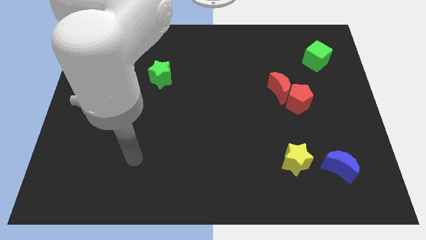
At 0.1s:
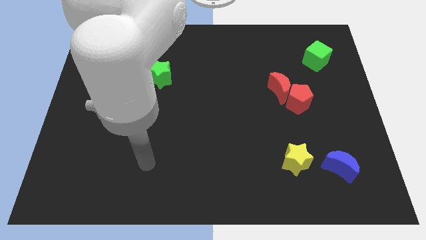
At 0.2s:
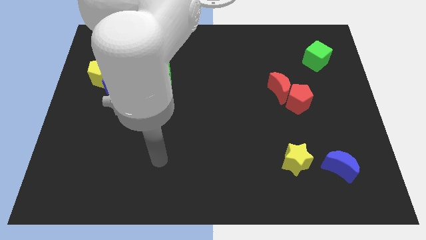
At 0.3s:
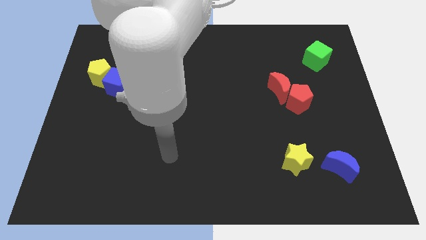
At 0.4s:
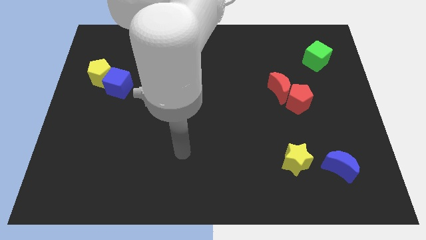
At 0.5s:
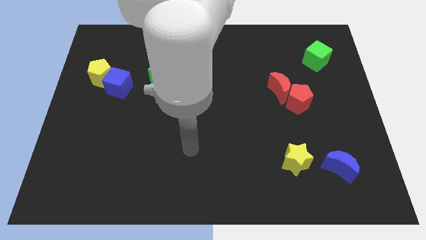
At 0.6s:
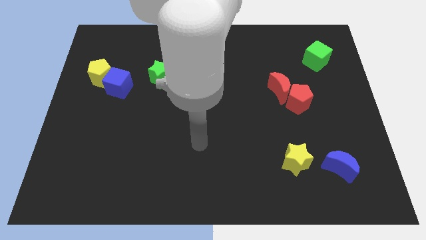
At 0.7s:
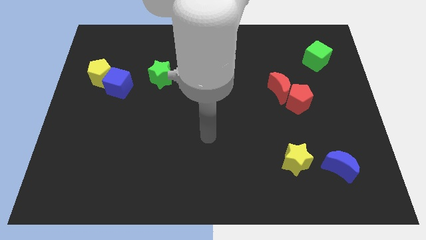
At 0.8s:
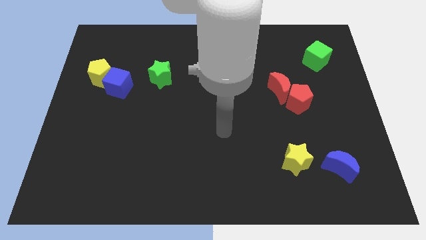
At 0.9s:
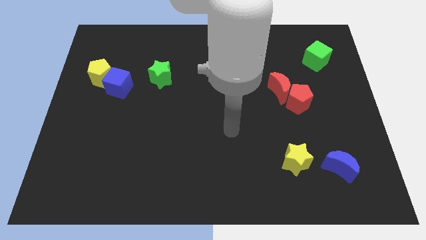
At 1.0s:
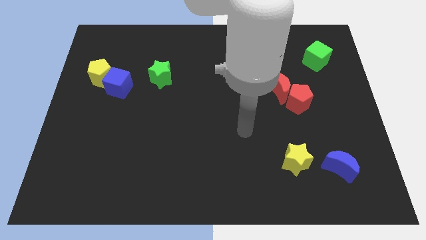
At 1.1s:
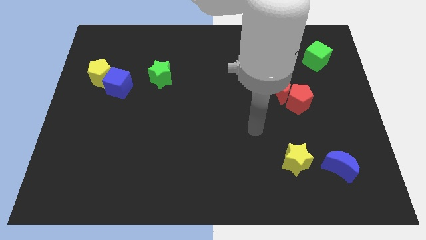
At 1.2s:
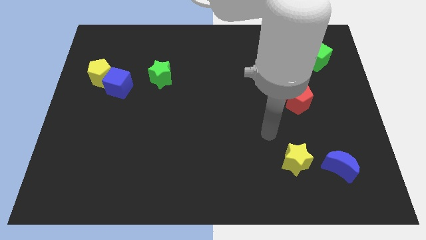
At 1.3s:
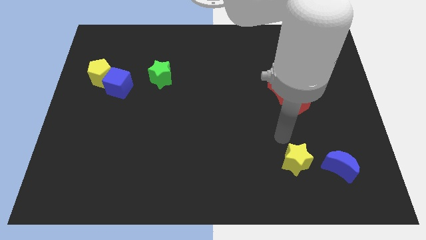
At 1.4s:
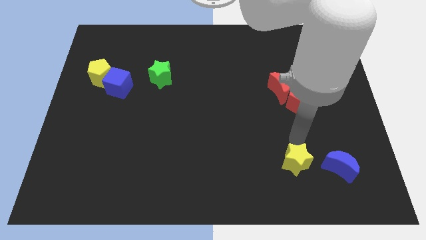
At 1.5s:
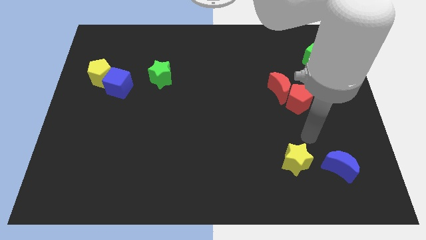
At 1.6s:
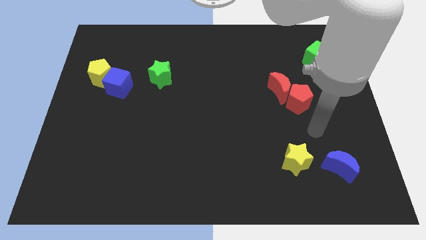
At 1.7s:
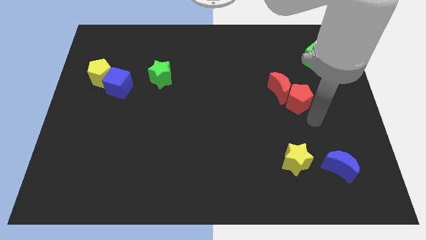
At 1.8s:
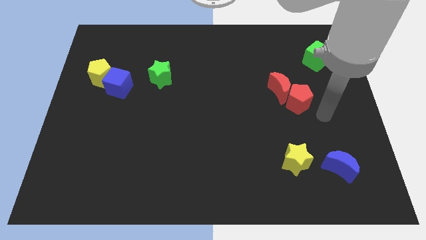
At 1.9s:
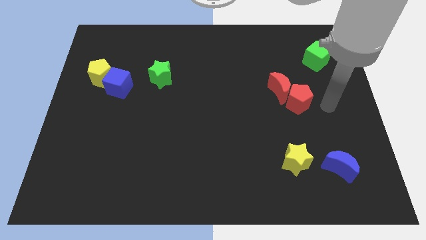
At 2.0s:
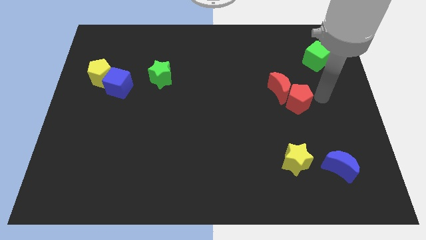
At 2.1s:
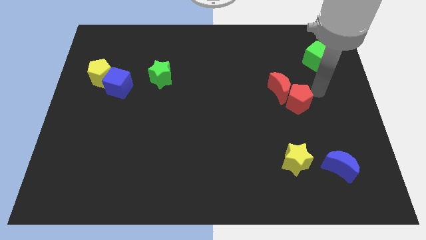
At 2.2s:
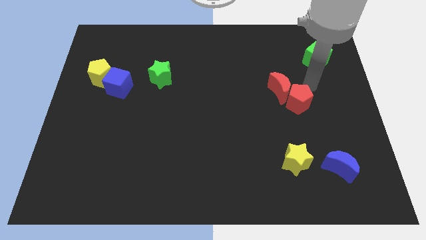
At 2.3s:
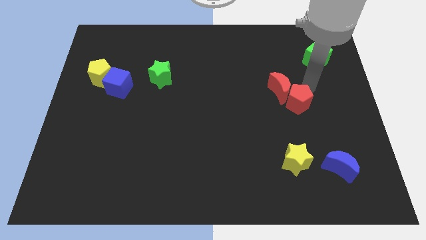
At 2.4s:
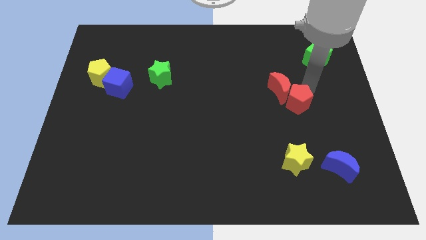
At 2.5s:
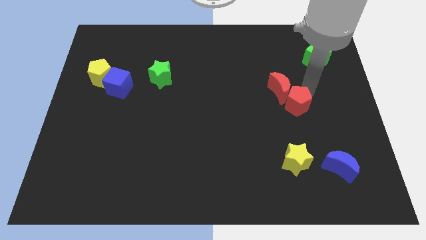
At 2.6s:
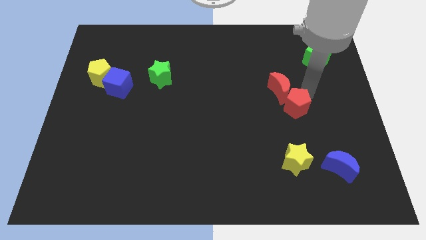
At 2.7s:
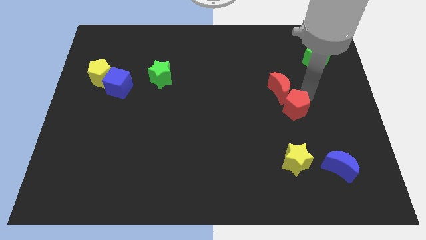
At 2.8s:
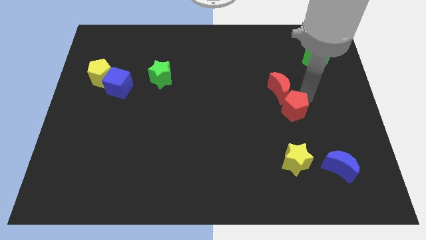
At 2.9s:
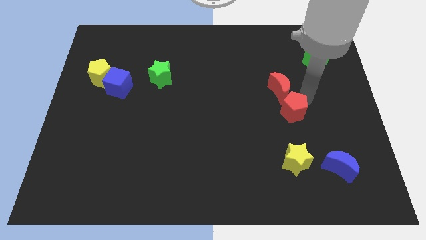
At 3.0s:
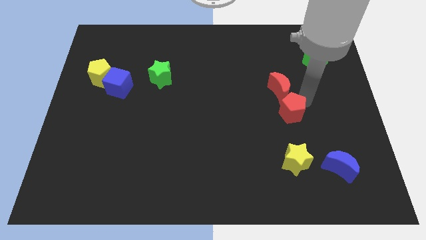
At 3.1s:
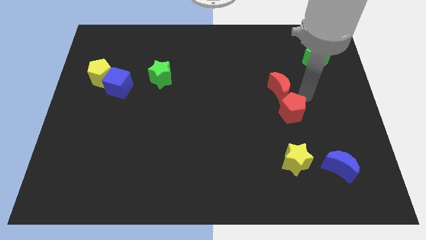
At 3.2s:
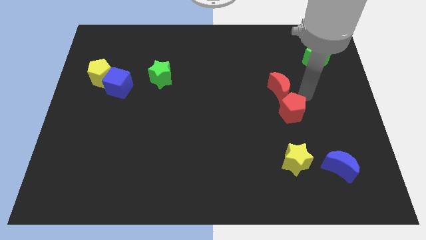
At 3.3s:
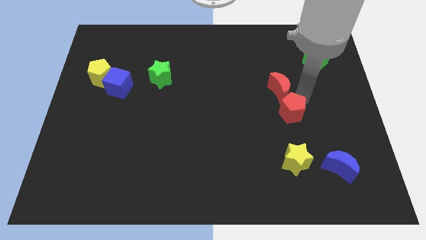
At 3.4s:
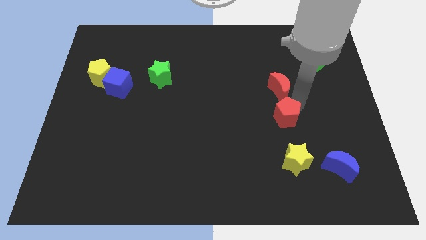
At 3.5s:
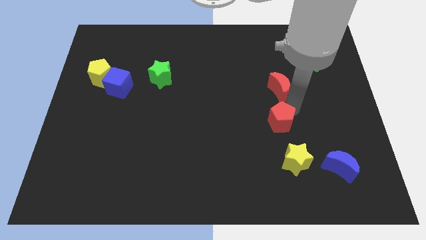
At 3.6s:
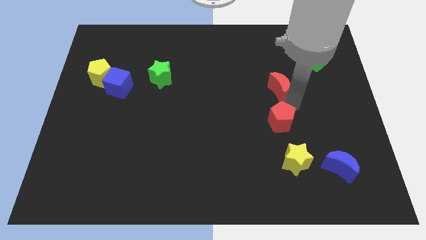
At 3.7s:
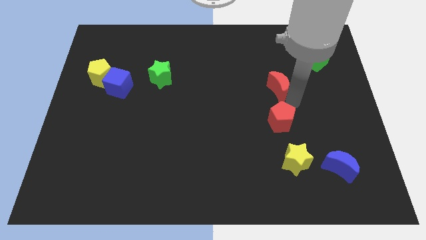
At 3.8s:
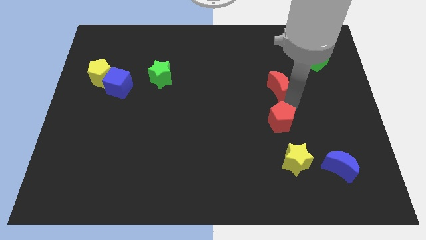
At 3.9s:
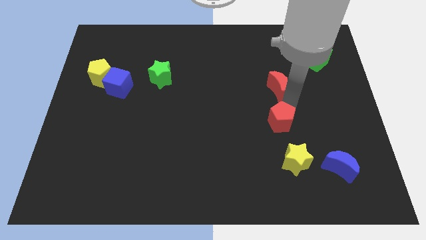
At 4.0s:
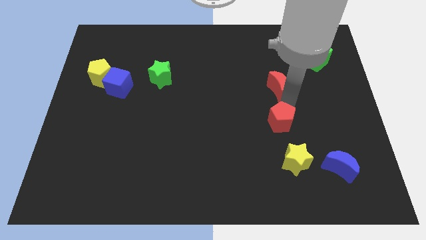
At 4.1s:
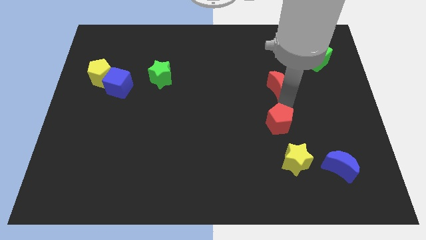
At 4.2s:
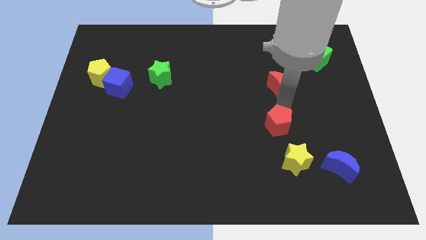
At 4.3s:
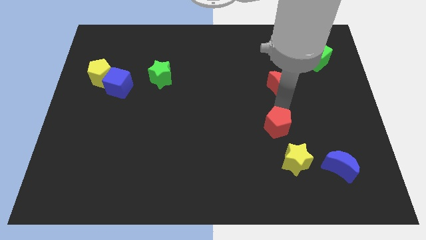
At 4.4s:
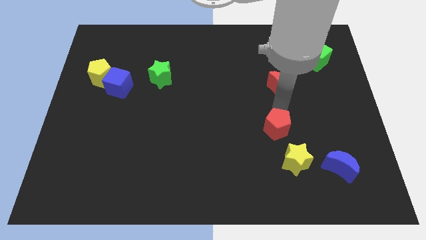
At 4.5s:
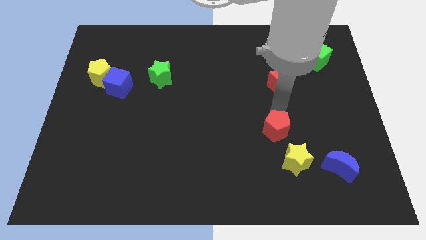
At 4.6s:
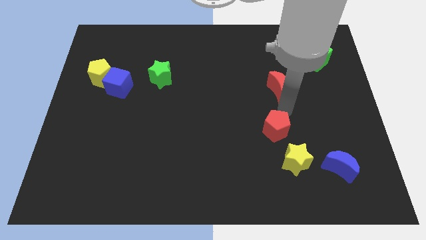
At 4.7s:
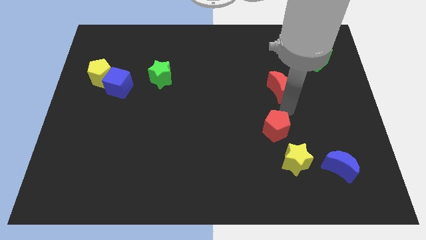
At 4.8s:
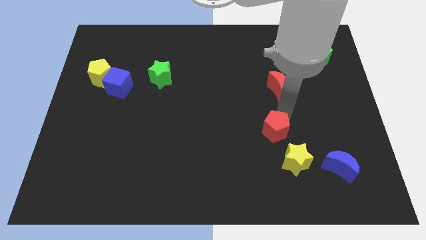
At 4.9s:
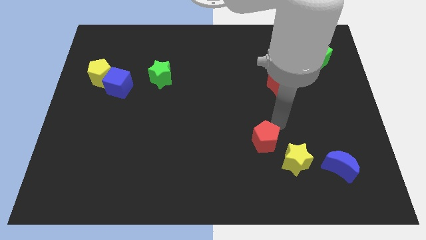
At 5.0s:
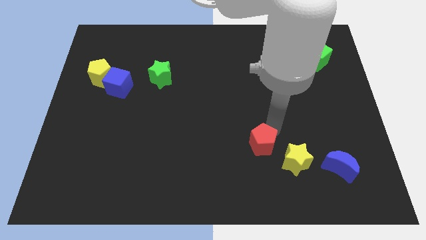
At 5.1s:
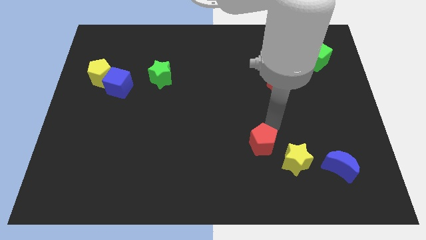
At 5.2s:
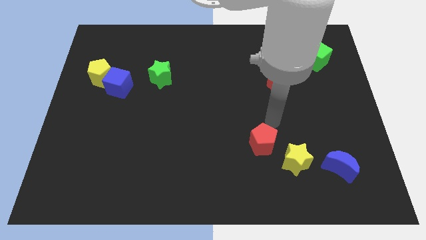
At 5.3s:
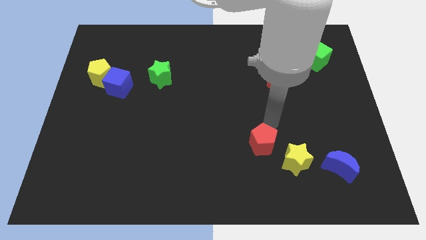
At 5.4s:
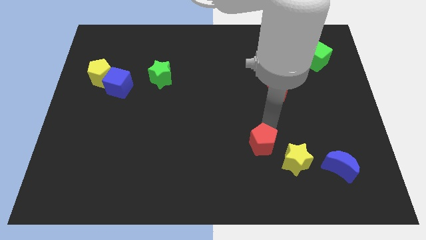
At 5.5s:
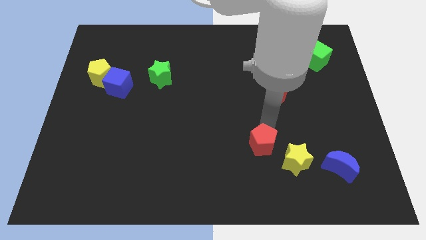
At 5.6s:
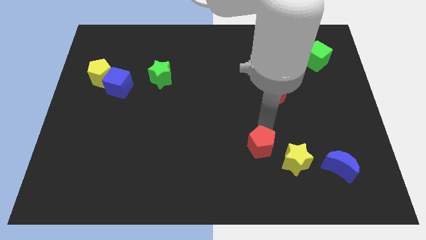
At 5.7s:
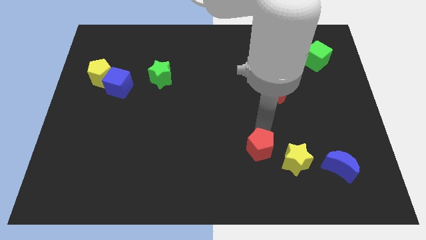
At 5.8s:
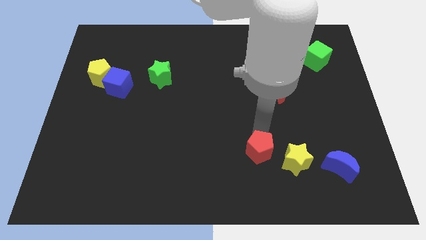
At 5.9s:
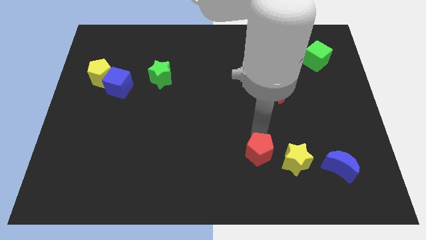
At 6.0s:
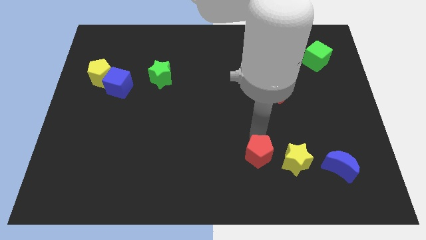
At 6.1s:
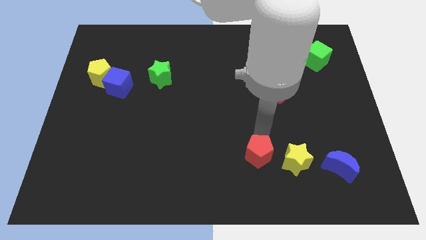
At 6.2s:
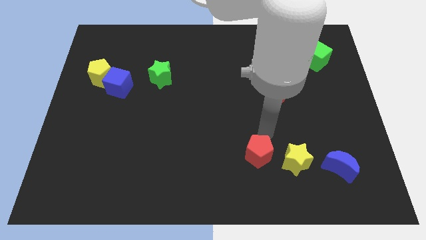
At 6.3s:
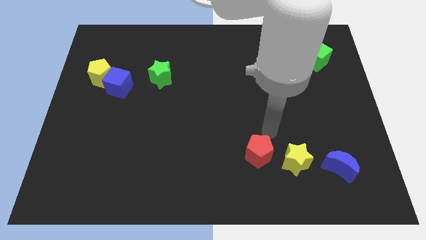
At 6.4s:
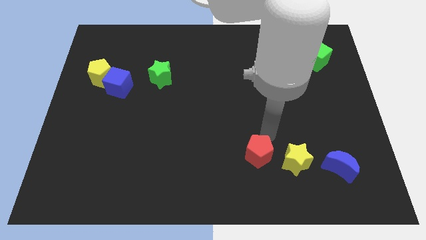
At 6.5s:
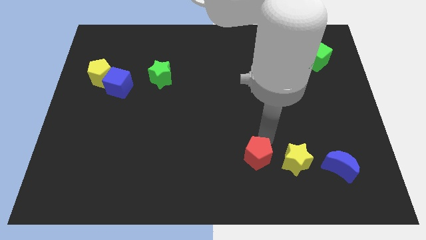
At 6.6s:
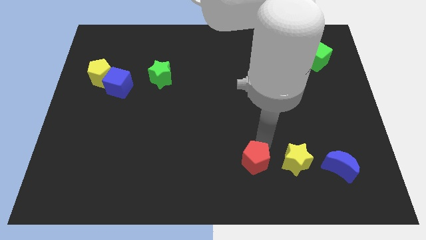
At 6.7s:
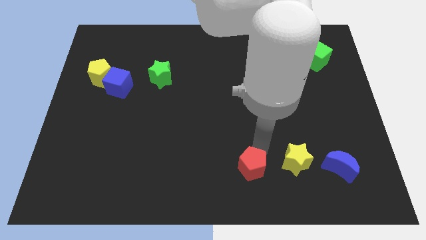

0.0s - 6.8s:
push the red pentagon to the bottom side
